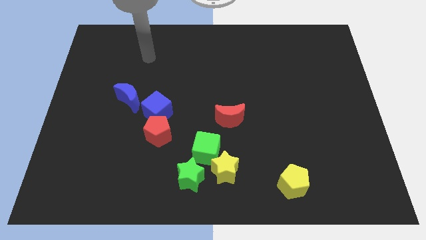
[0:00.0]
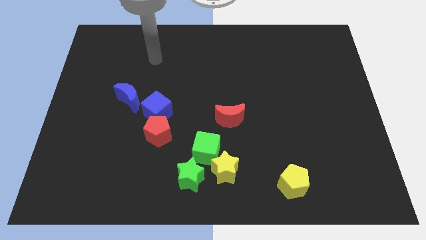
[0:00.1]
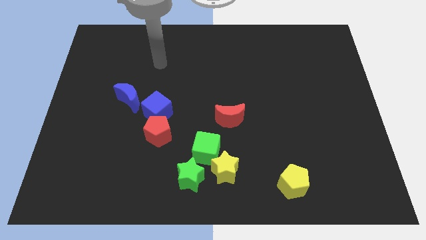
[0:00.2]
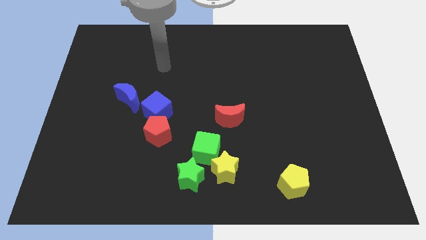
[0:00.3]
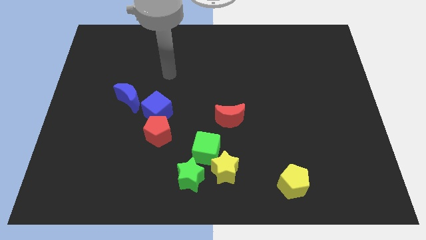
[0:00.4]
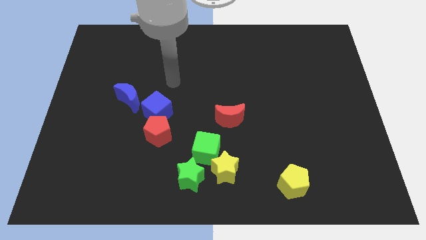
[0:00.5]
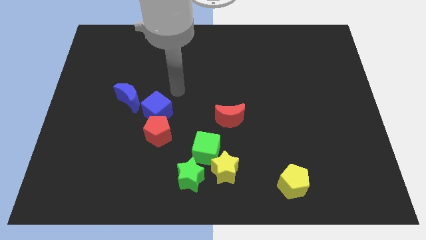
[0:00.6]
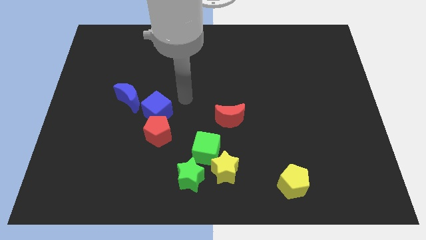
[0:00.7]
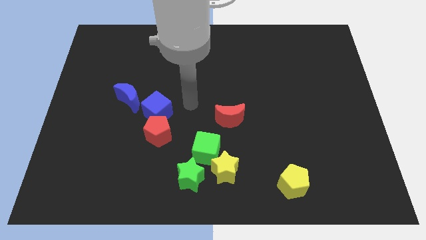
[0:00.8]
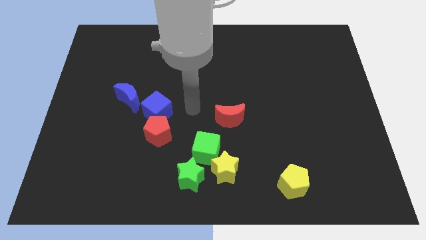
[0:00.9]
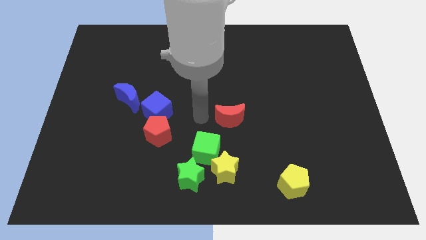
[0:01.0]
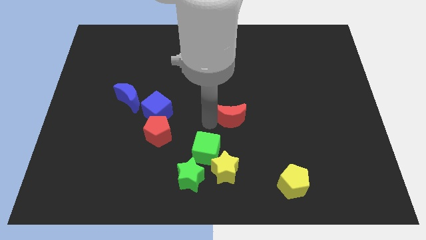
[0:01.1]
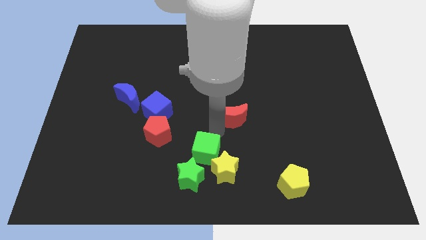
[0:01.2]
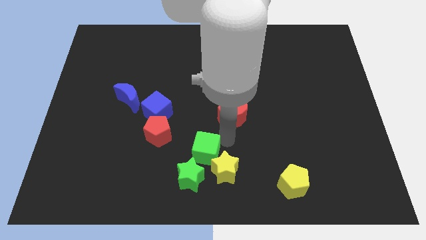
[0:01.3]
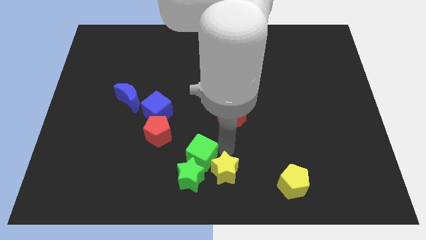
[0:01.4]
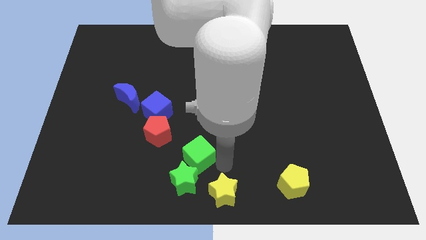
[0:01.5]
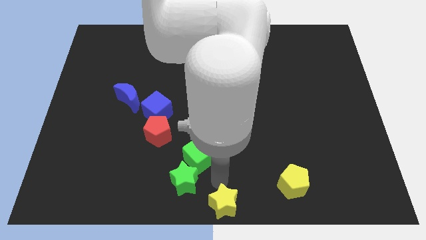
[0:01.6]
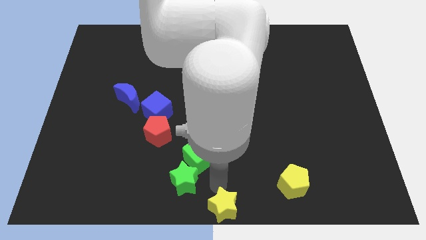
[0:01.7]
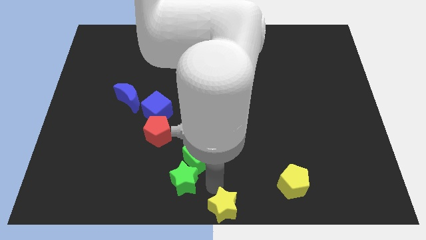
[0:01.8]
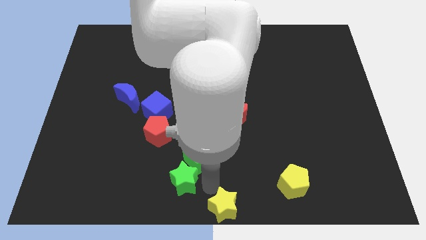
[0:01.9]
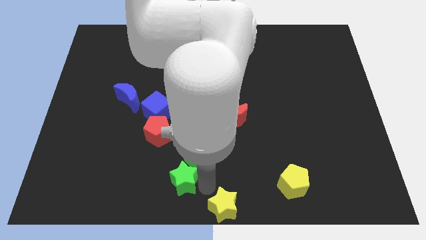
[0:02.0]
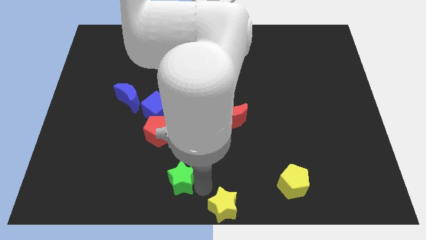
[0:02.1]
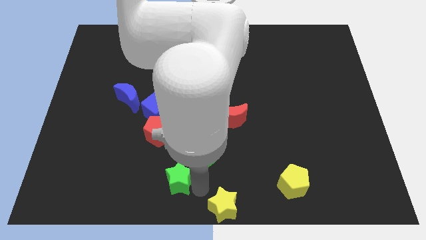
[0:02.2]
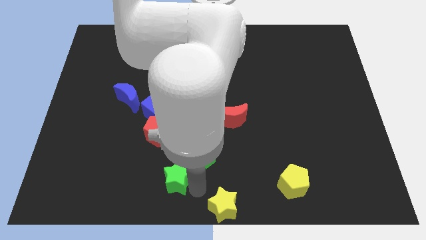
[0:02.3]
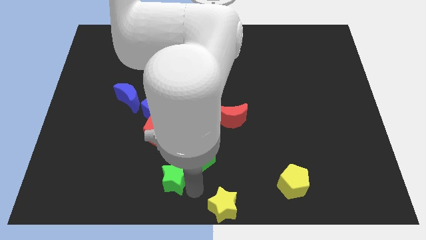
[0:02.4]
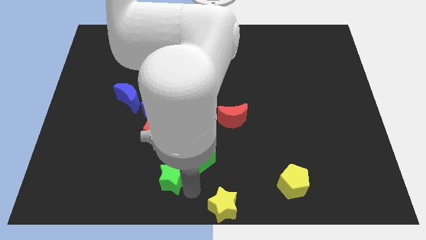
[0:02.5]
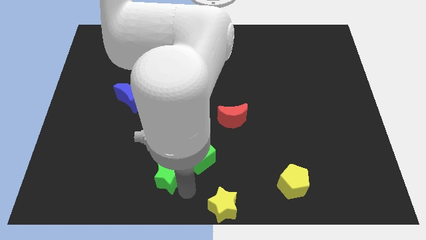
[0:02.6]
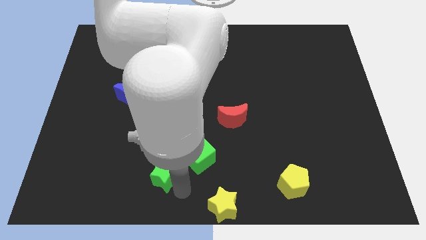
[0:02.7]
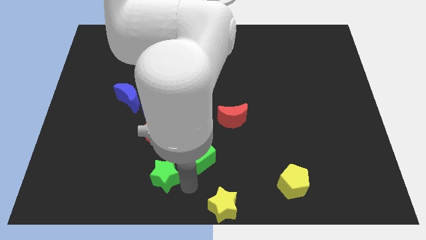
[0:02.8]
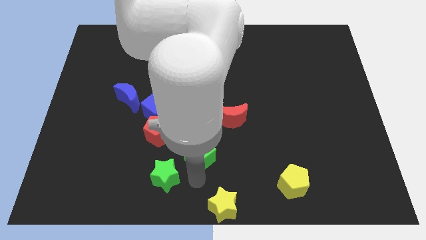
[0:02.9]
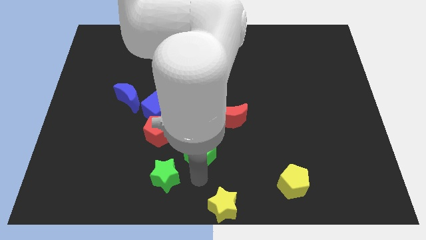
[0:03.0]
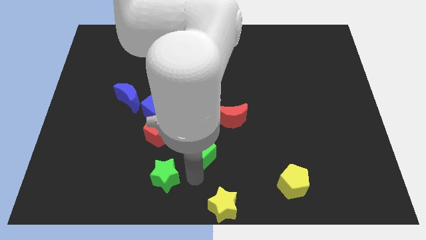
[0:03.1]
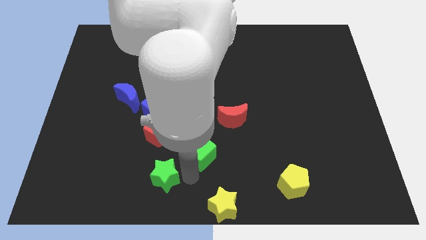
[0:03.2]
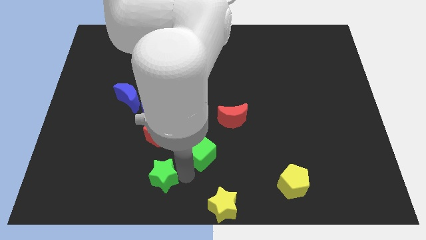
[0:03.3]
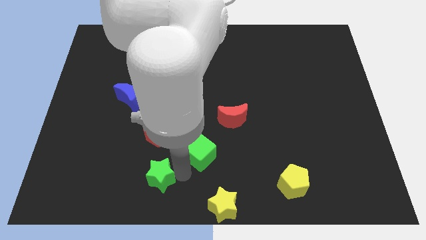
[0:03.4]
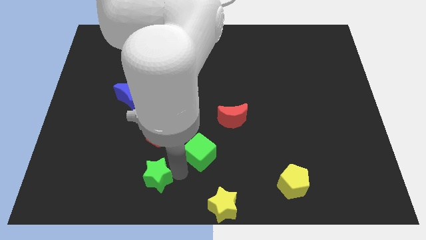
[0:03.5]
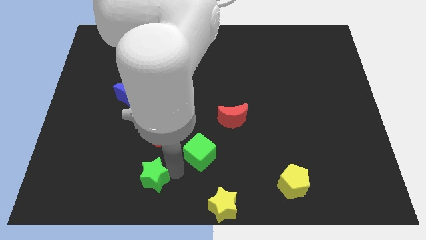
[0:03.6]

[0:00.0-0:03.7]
slightly move the green star left

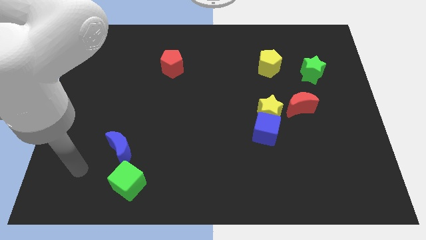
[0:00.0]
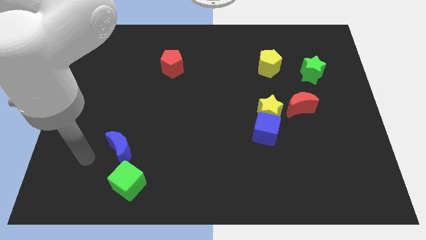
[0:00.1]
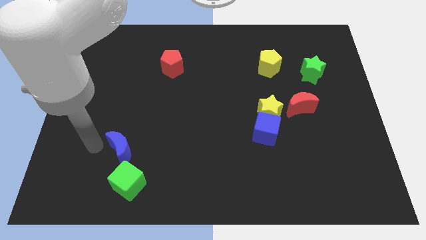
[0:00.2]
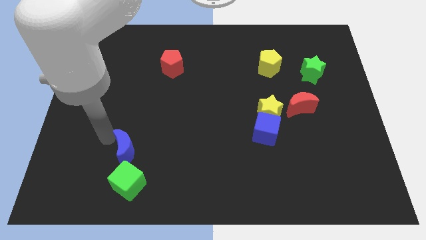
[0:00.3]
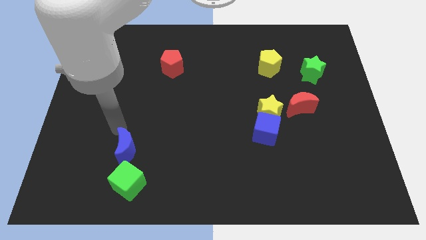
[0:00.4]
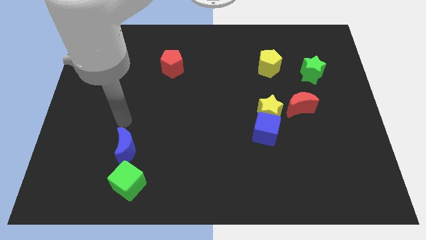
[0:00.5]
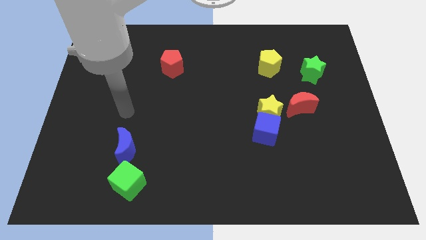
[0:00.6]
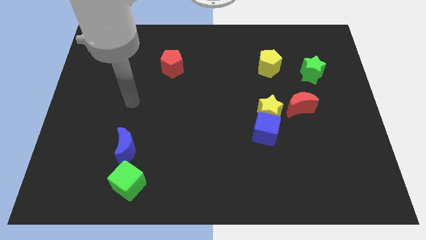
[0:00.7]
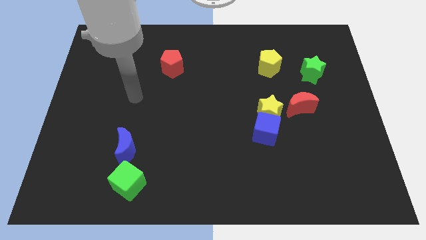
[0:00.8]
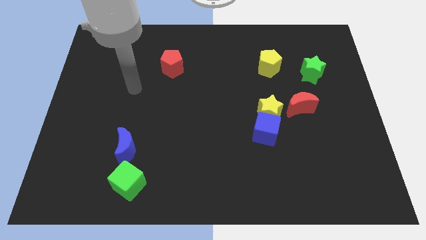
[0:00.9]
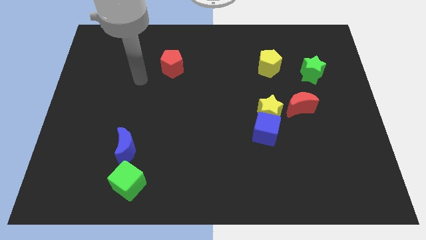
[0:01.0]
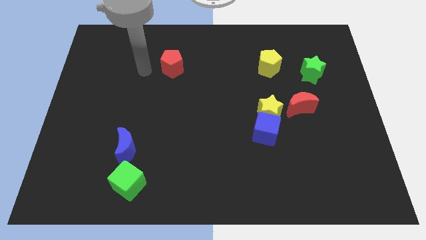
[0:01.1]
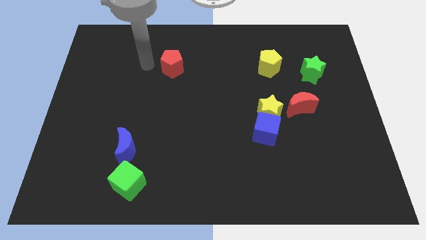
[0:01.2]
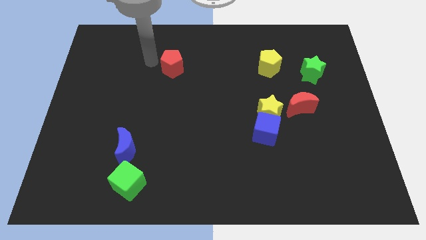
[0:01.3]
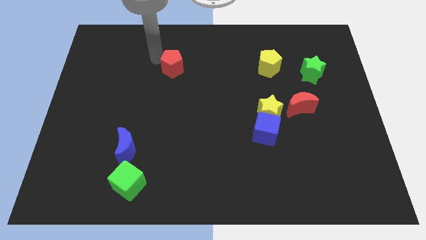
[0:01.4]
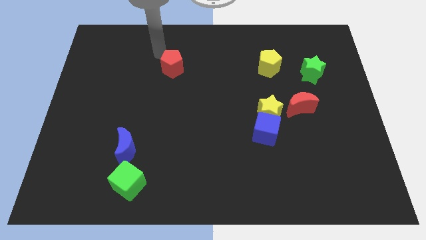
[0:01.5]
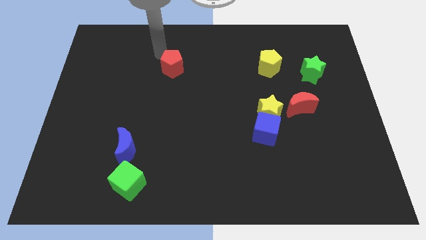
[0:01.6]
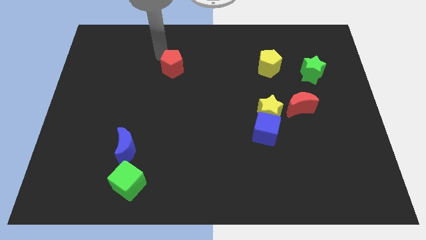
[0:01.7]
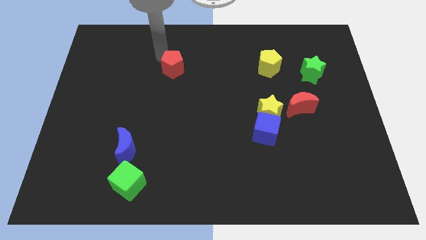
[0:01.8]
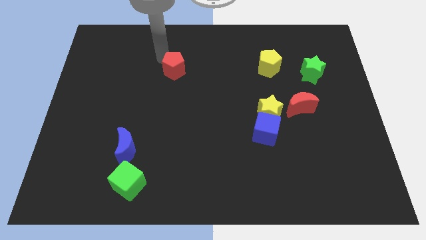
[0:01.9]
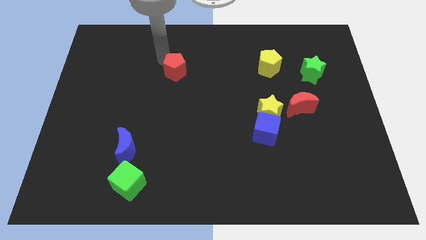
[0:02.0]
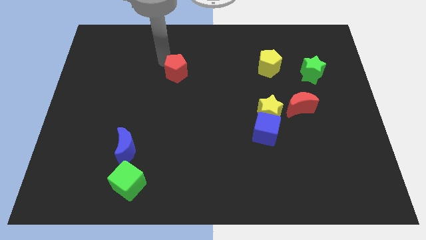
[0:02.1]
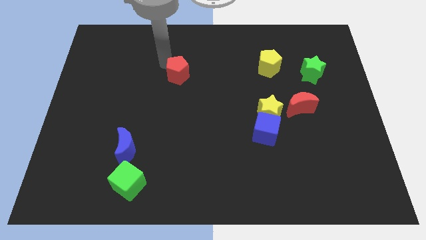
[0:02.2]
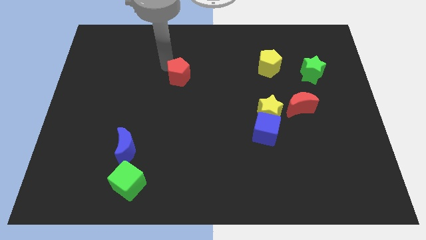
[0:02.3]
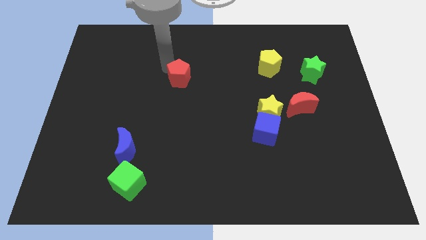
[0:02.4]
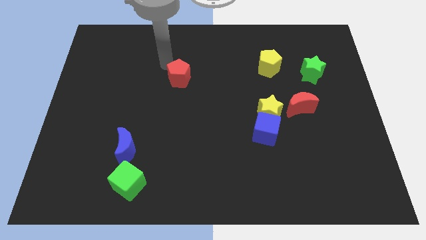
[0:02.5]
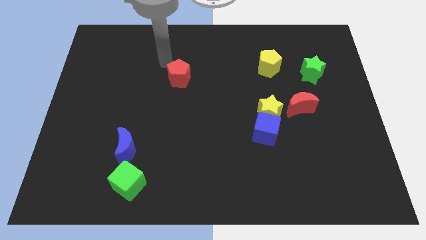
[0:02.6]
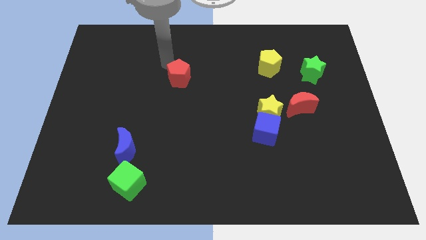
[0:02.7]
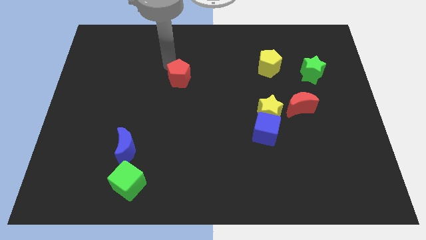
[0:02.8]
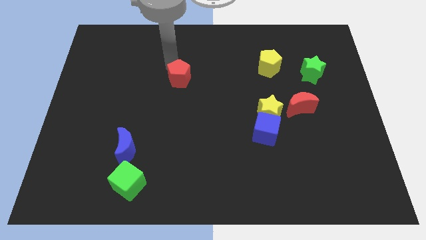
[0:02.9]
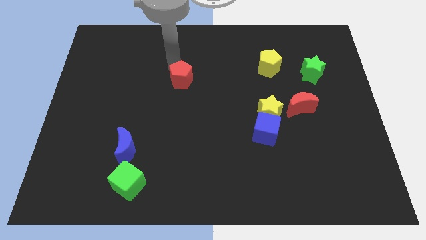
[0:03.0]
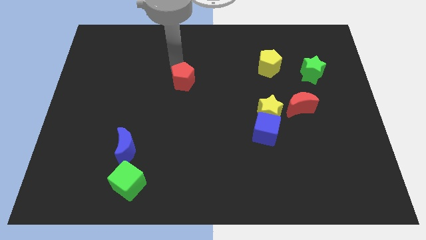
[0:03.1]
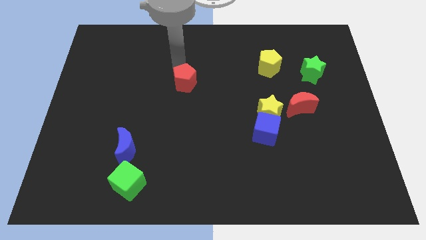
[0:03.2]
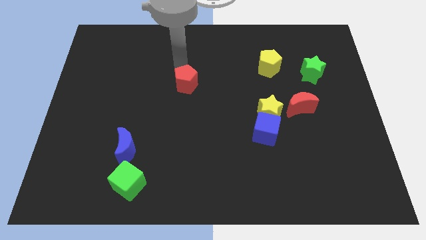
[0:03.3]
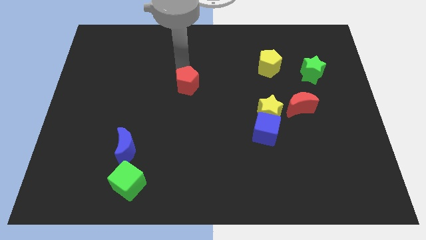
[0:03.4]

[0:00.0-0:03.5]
slightly push the red pentagon diagonally down and to the right

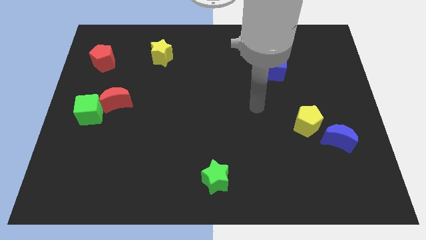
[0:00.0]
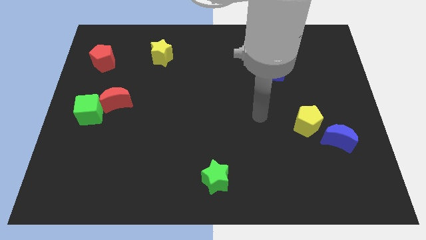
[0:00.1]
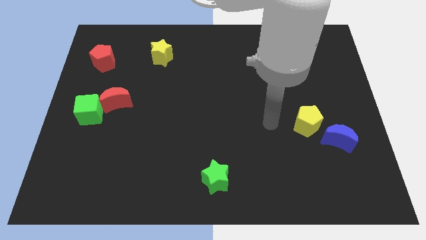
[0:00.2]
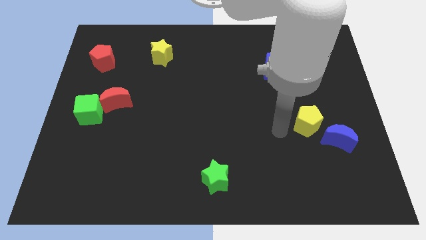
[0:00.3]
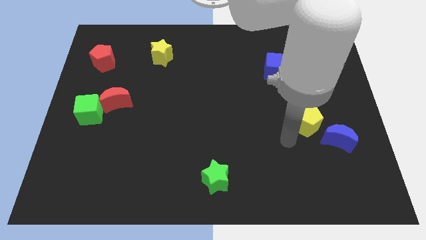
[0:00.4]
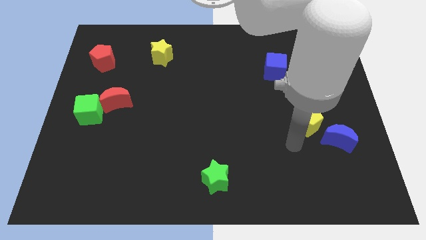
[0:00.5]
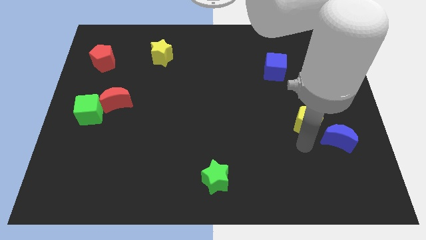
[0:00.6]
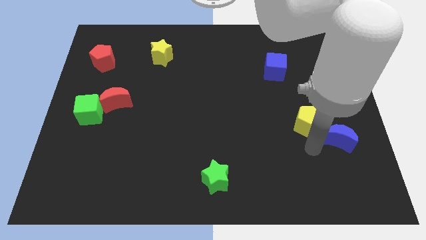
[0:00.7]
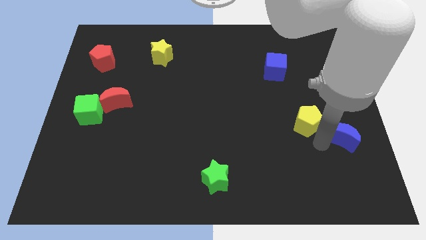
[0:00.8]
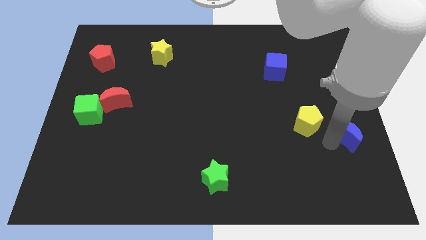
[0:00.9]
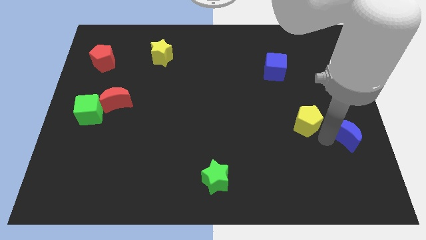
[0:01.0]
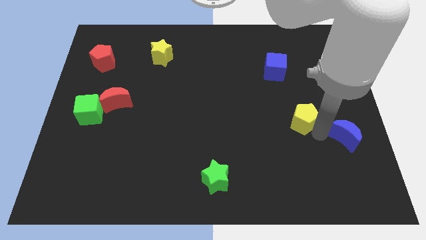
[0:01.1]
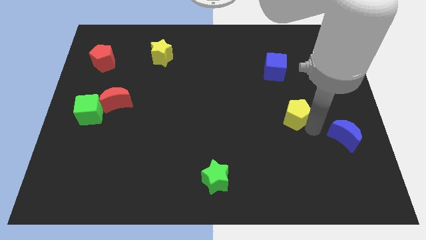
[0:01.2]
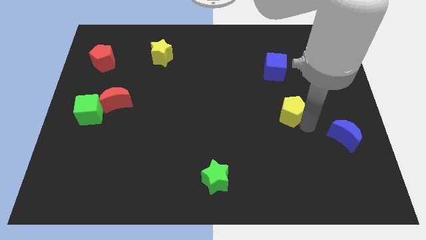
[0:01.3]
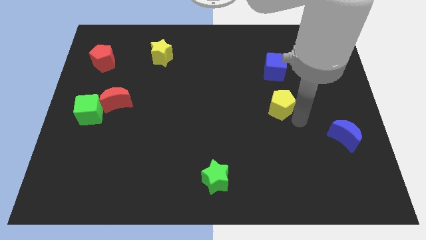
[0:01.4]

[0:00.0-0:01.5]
slightly slide the yellow pentagon upwards and to the left diagonally
